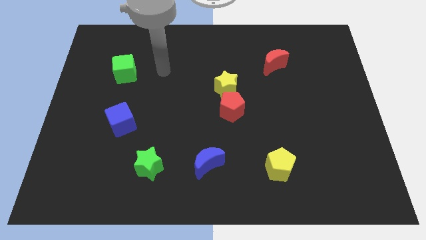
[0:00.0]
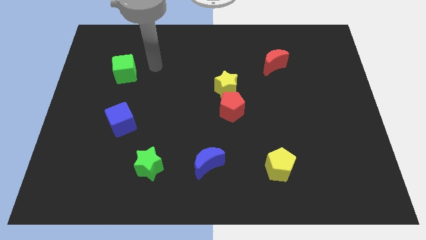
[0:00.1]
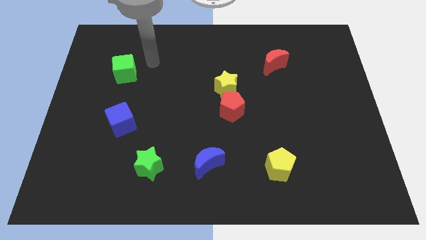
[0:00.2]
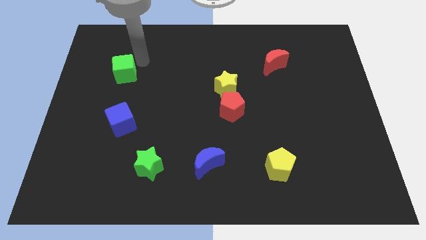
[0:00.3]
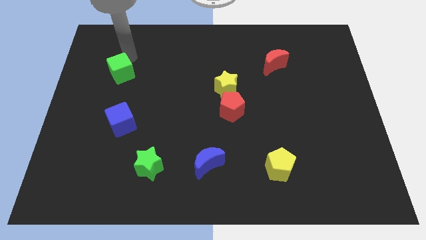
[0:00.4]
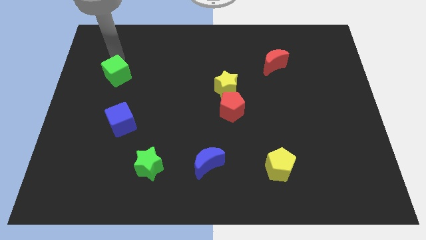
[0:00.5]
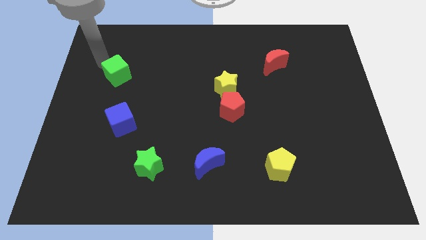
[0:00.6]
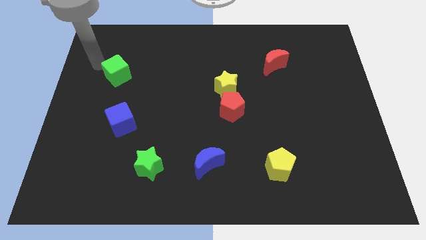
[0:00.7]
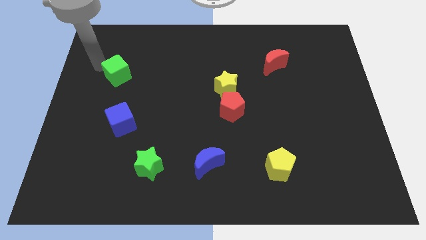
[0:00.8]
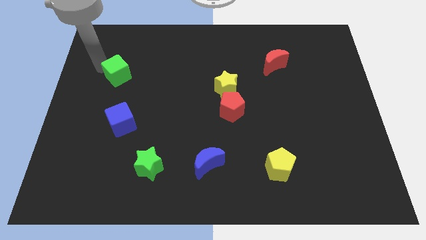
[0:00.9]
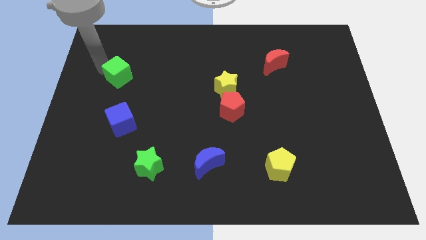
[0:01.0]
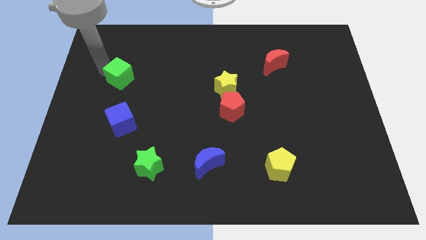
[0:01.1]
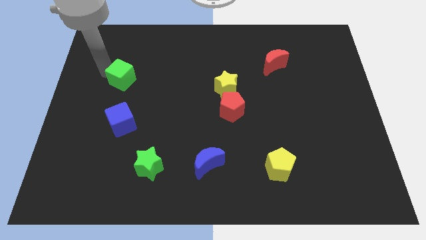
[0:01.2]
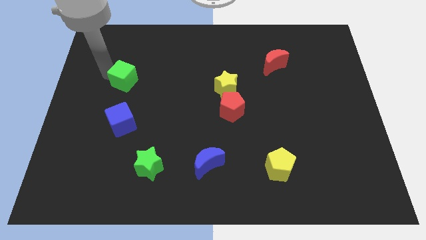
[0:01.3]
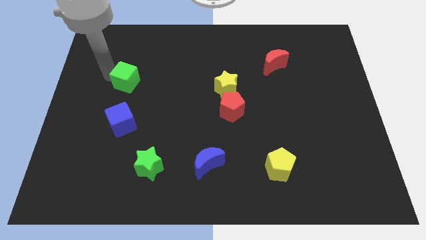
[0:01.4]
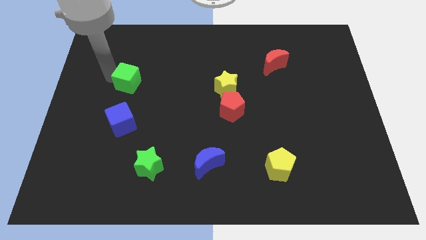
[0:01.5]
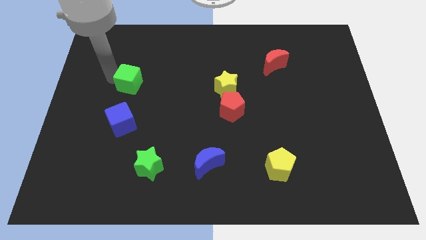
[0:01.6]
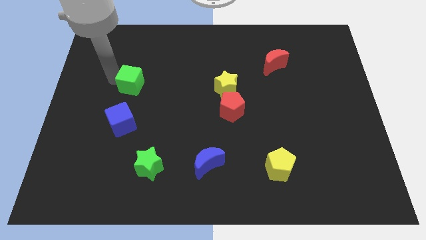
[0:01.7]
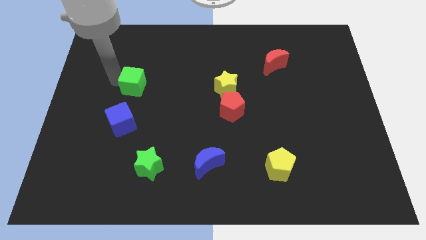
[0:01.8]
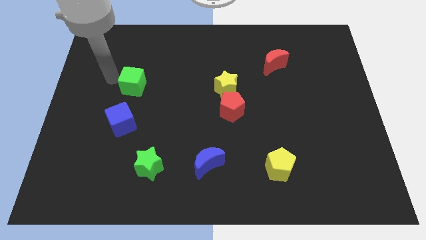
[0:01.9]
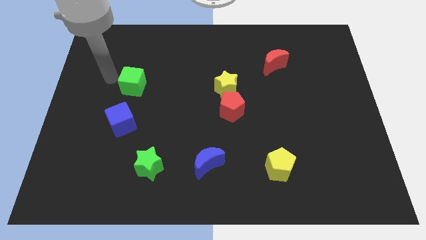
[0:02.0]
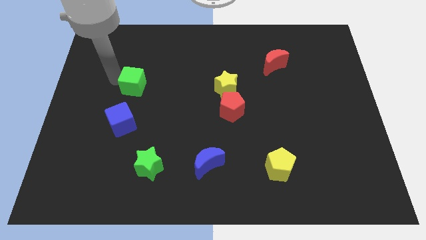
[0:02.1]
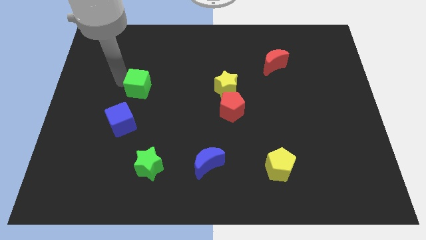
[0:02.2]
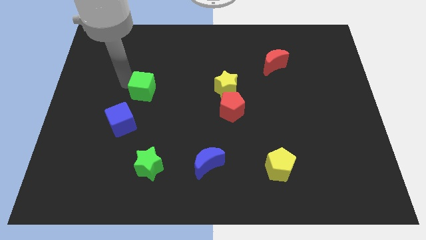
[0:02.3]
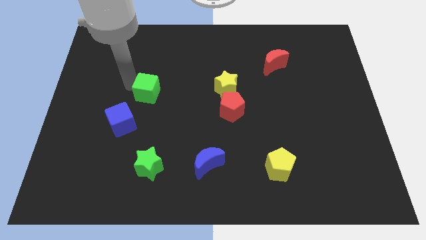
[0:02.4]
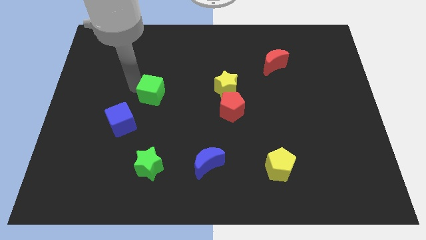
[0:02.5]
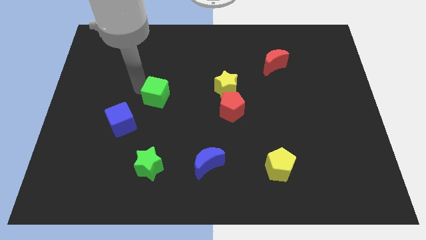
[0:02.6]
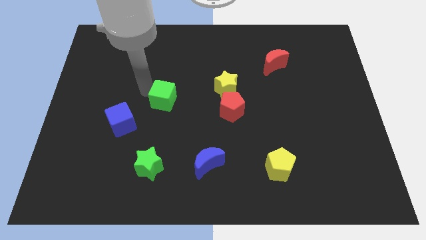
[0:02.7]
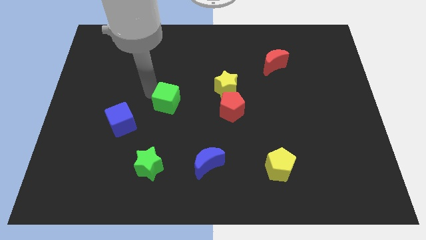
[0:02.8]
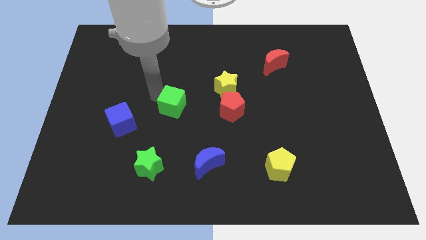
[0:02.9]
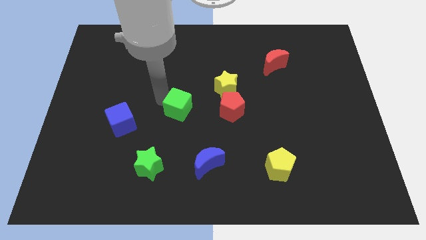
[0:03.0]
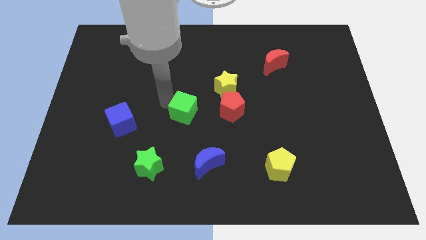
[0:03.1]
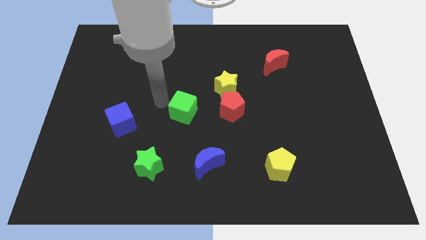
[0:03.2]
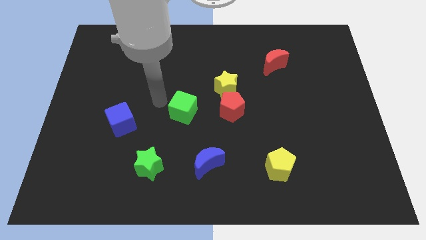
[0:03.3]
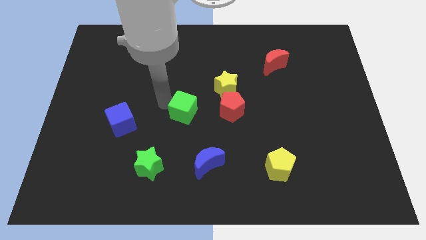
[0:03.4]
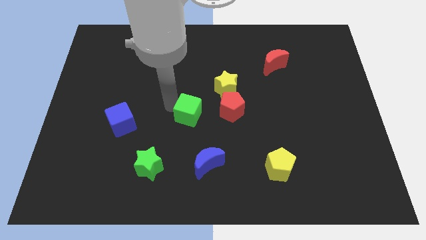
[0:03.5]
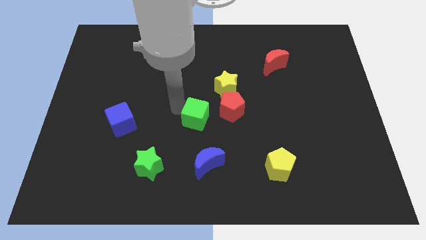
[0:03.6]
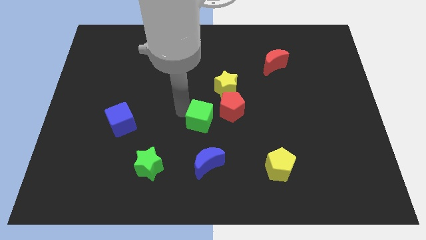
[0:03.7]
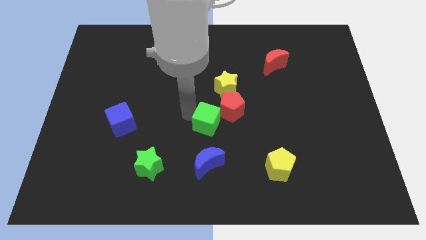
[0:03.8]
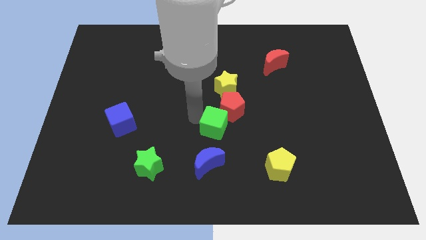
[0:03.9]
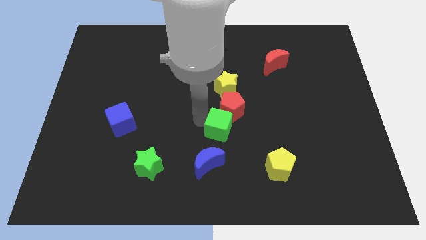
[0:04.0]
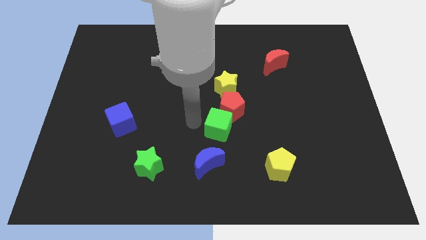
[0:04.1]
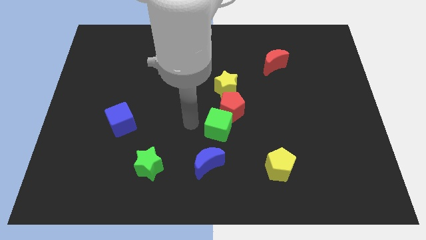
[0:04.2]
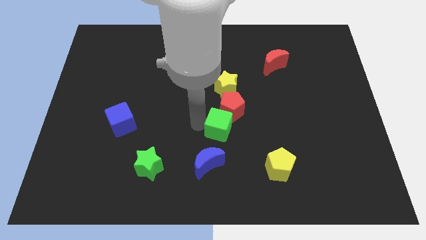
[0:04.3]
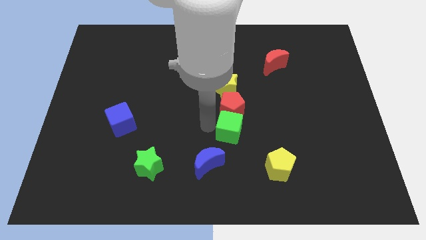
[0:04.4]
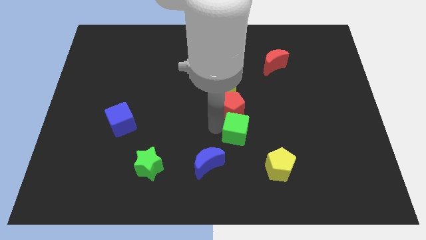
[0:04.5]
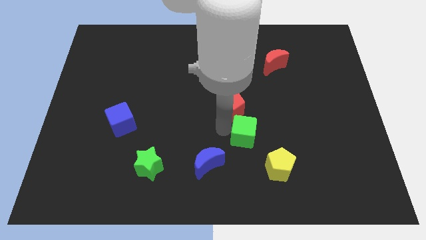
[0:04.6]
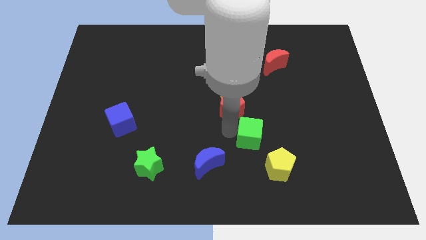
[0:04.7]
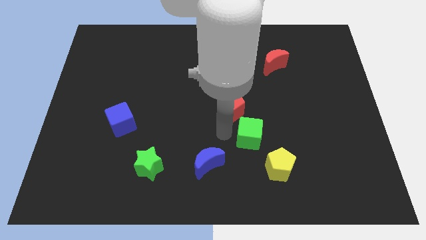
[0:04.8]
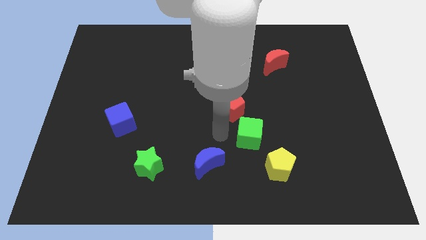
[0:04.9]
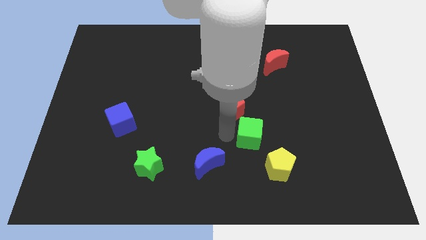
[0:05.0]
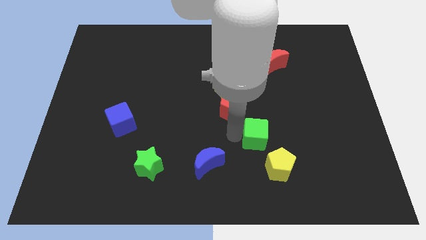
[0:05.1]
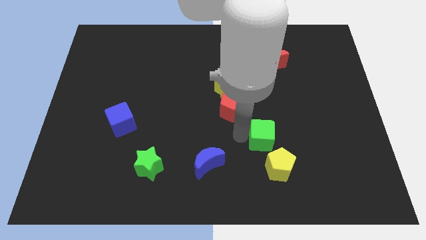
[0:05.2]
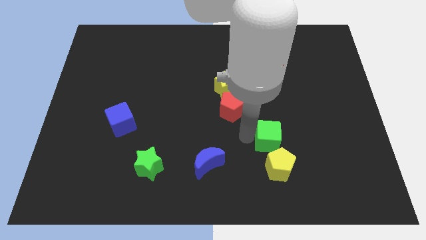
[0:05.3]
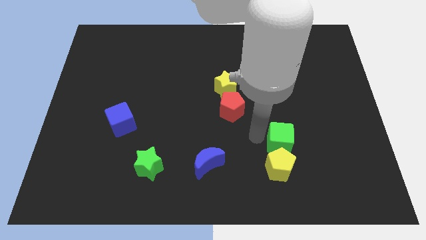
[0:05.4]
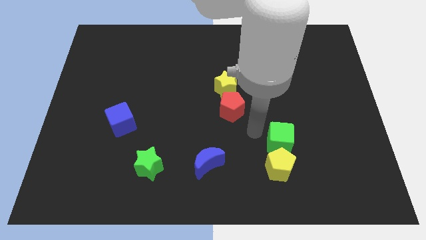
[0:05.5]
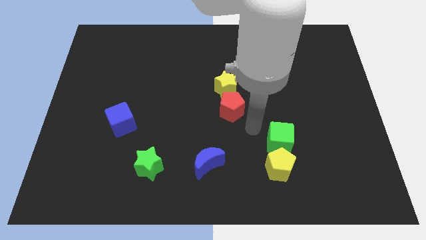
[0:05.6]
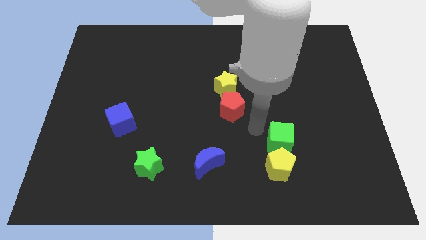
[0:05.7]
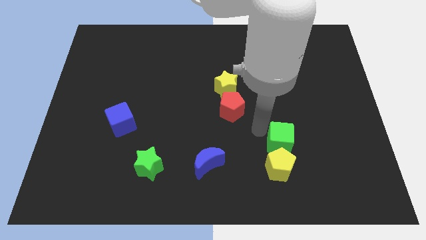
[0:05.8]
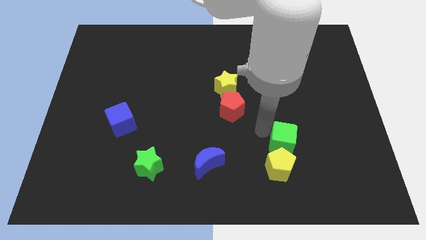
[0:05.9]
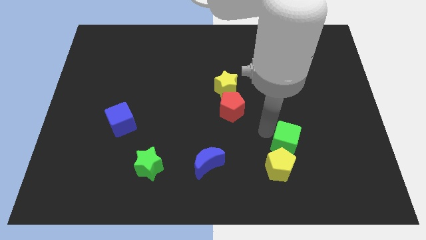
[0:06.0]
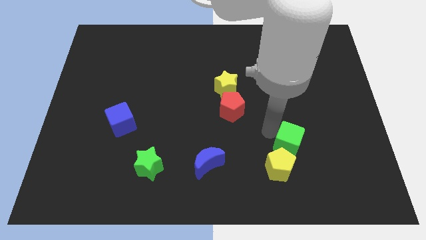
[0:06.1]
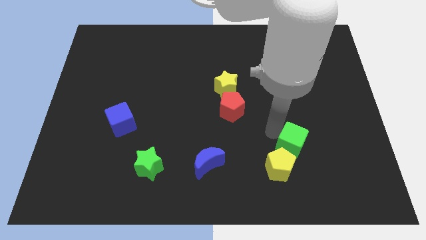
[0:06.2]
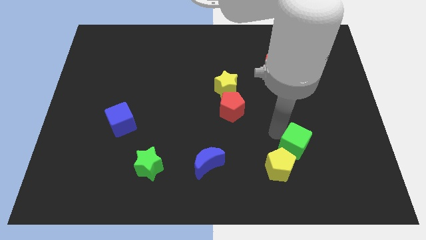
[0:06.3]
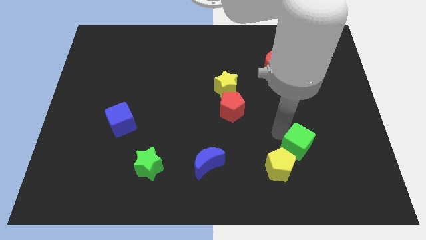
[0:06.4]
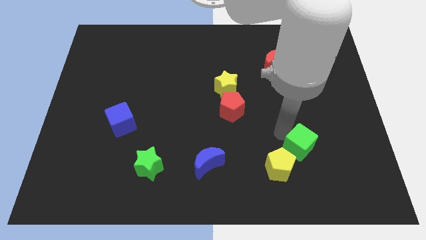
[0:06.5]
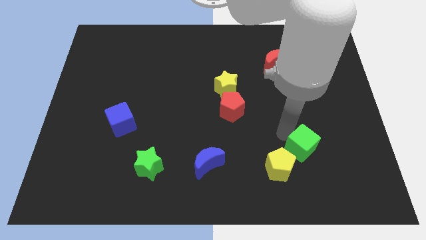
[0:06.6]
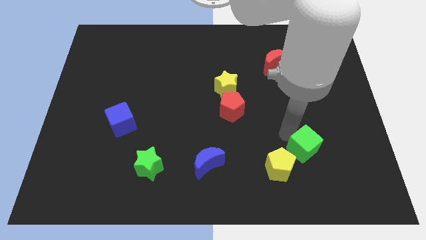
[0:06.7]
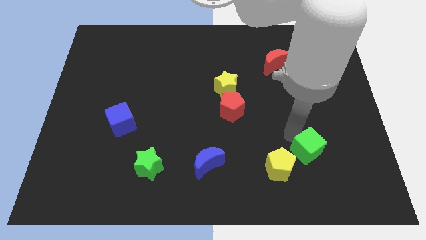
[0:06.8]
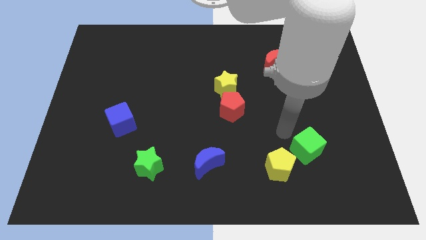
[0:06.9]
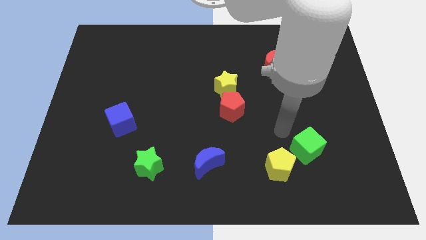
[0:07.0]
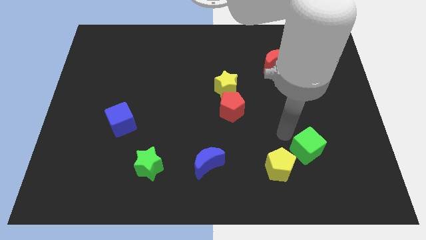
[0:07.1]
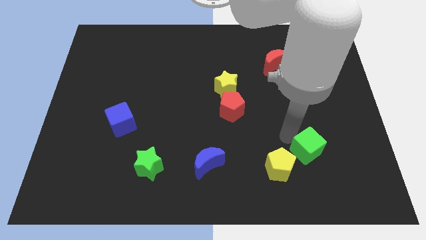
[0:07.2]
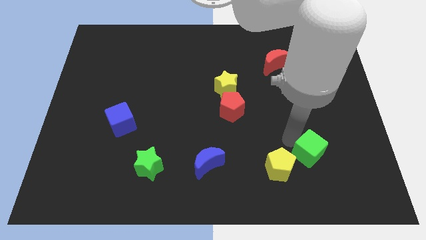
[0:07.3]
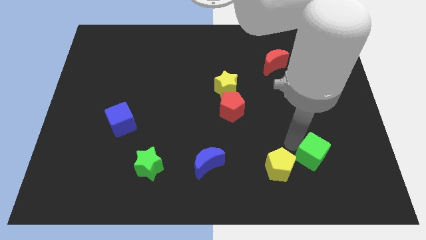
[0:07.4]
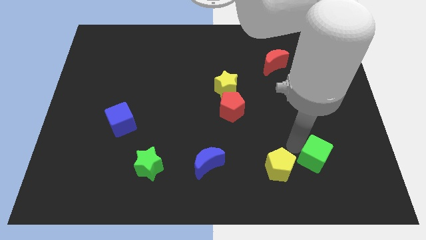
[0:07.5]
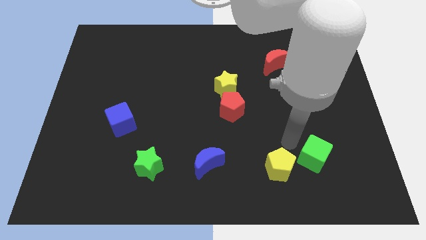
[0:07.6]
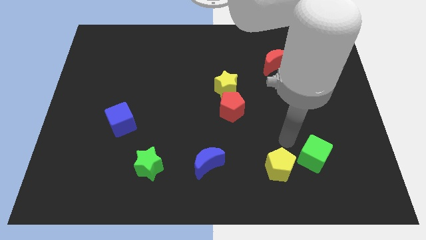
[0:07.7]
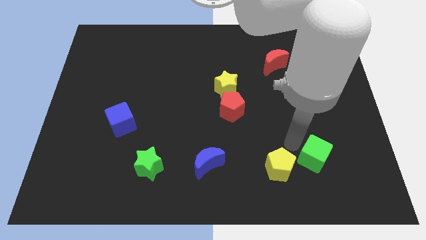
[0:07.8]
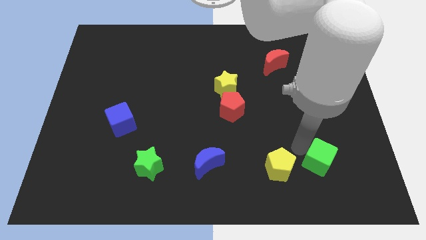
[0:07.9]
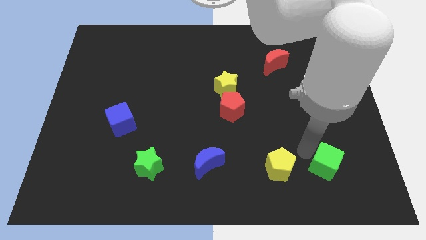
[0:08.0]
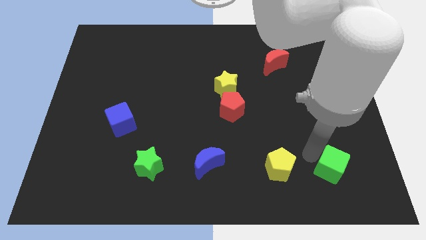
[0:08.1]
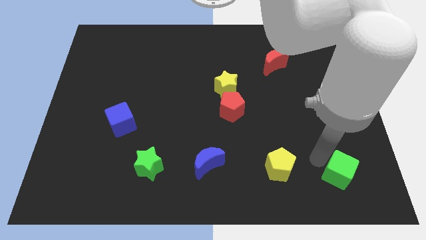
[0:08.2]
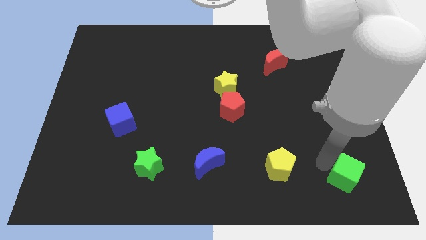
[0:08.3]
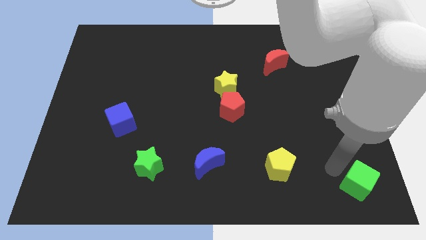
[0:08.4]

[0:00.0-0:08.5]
move the green cube to the bottom right of the board
